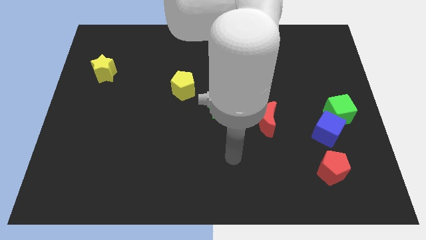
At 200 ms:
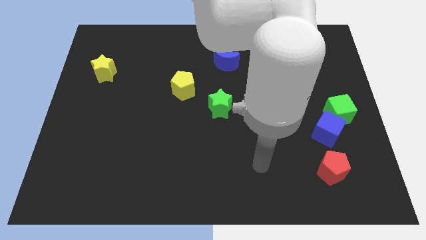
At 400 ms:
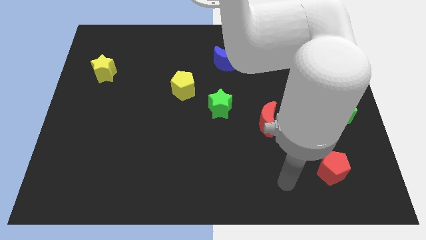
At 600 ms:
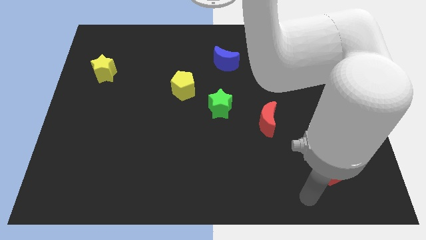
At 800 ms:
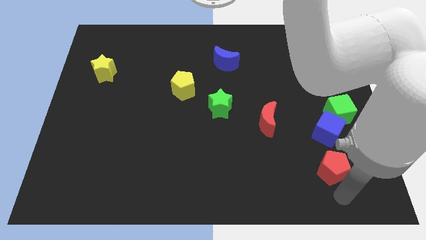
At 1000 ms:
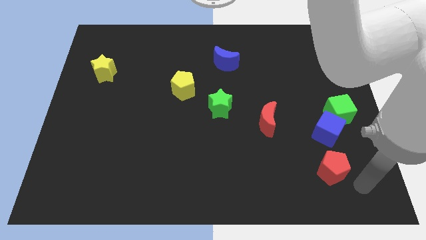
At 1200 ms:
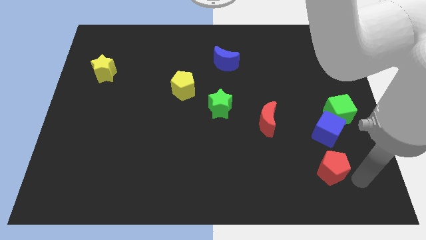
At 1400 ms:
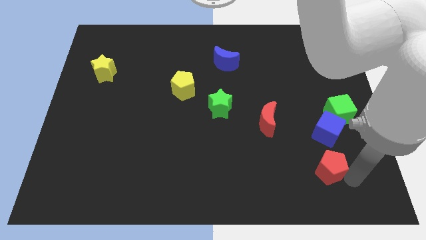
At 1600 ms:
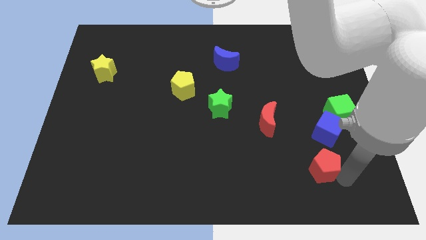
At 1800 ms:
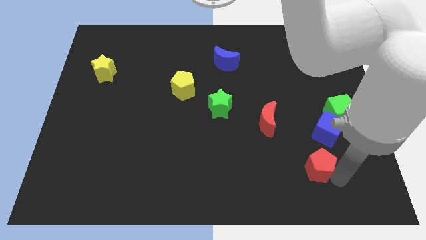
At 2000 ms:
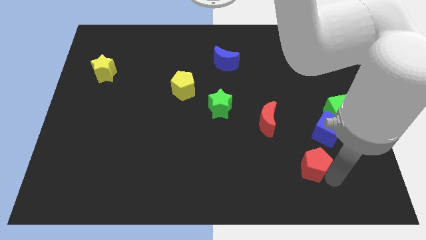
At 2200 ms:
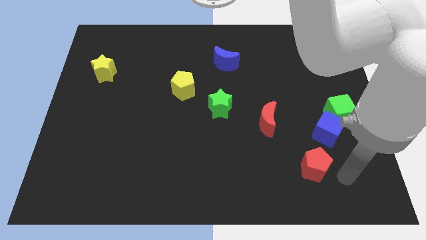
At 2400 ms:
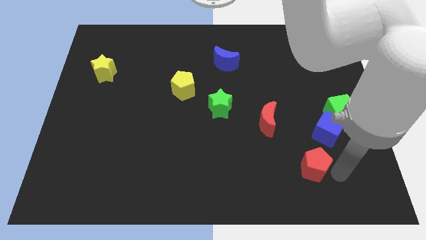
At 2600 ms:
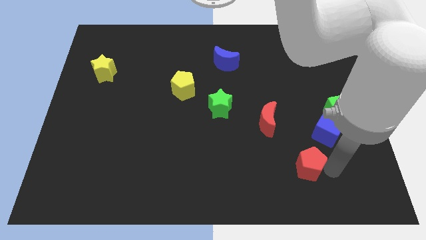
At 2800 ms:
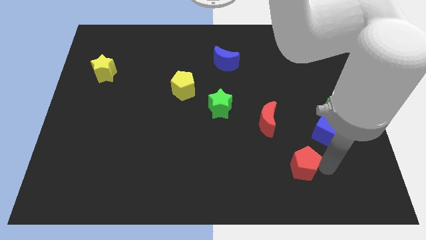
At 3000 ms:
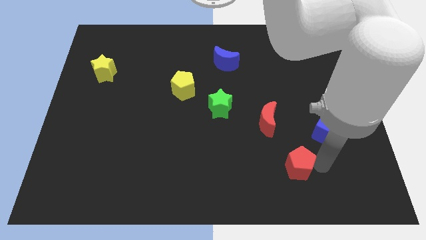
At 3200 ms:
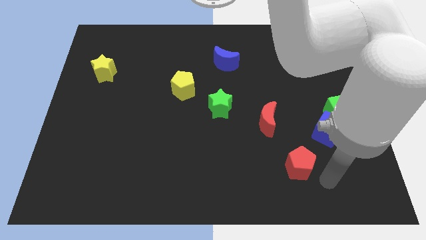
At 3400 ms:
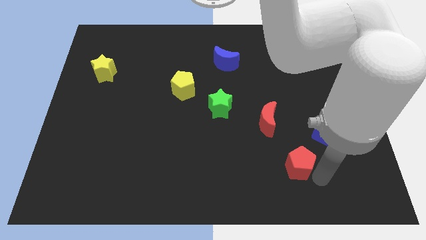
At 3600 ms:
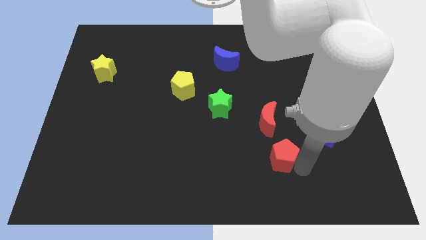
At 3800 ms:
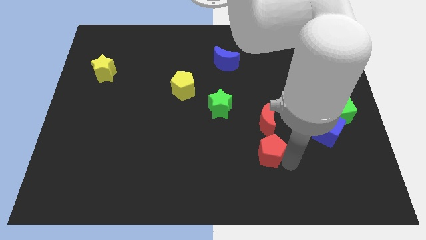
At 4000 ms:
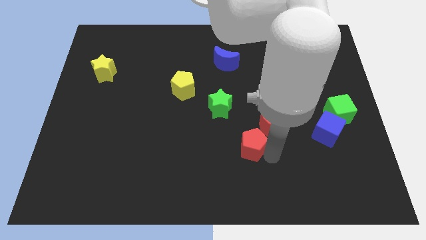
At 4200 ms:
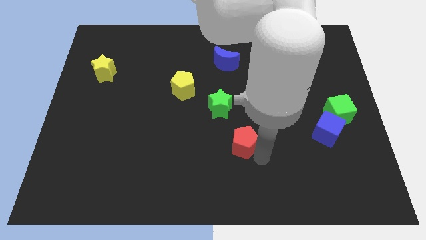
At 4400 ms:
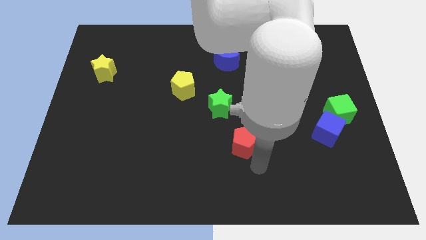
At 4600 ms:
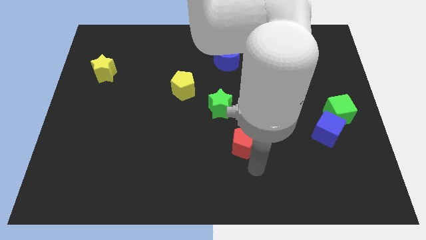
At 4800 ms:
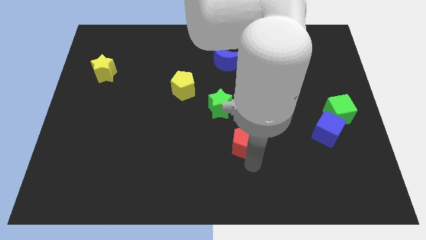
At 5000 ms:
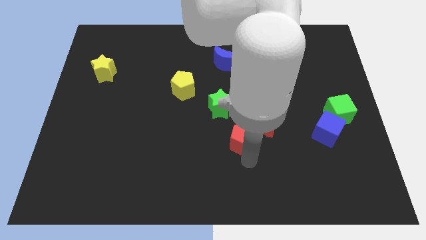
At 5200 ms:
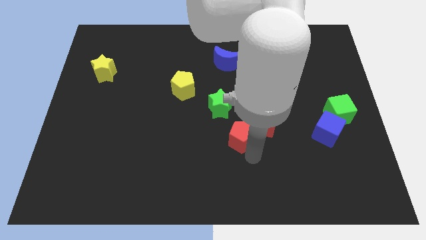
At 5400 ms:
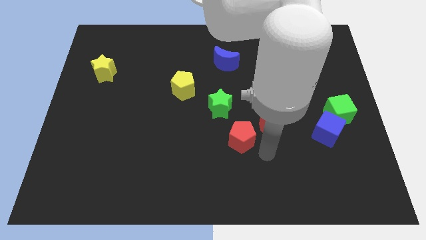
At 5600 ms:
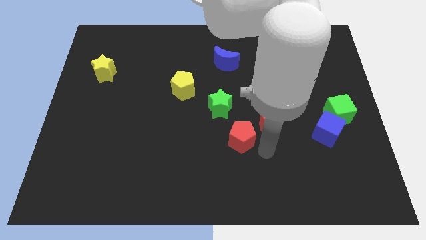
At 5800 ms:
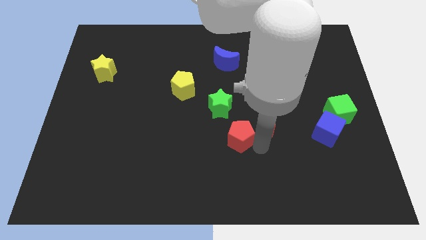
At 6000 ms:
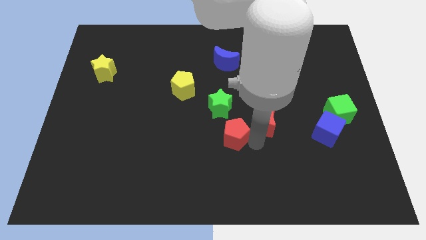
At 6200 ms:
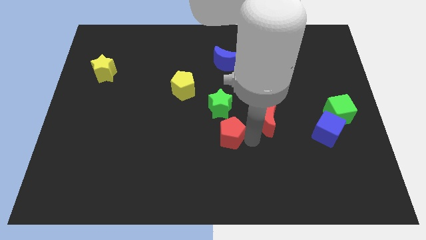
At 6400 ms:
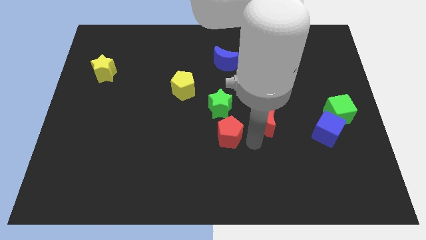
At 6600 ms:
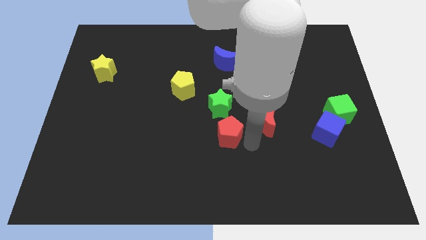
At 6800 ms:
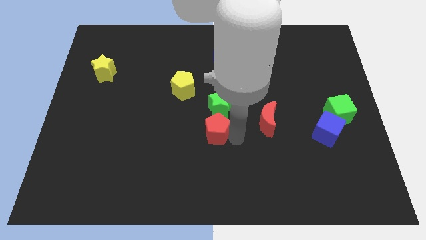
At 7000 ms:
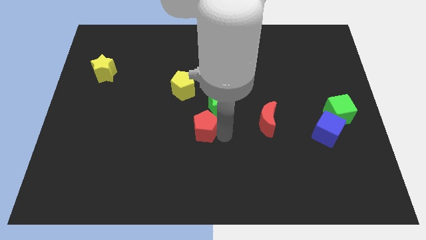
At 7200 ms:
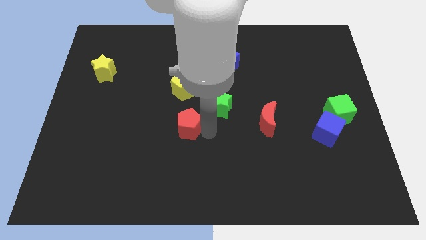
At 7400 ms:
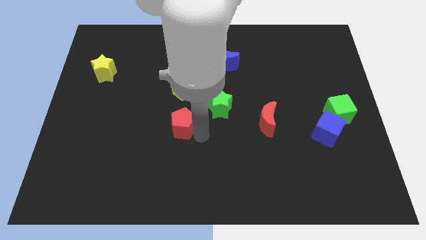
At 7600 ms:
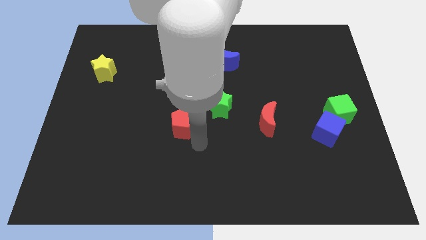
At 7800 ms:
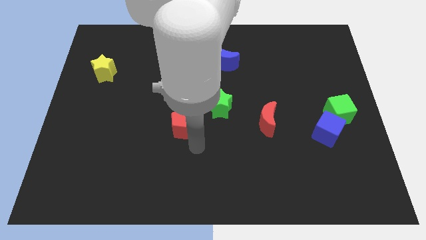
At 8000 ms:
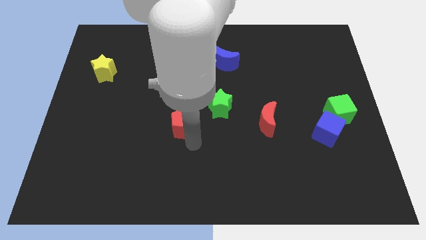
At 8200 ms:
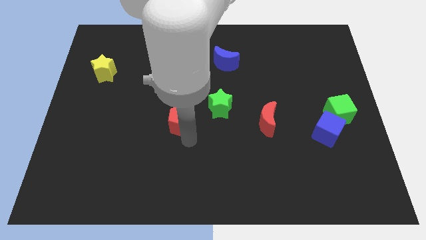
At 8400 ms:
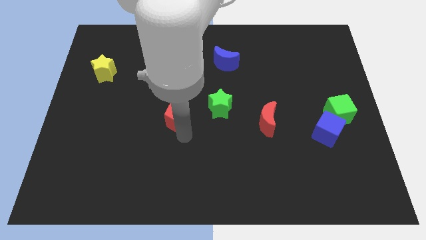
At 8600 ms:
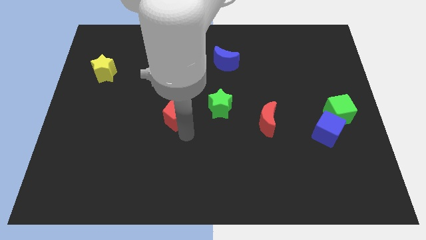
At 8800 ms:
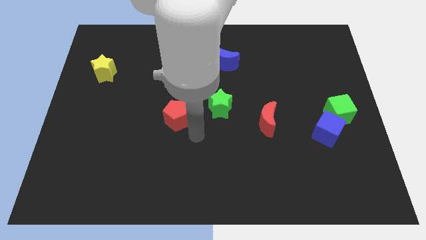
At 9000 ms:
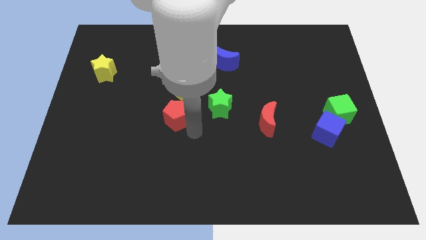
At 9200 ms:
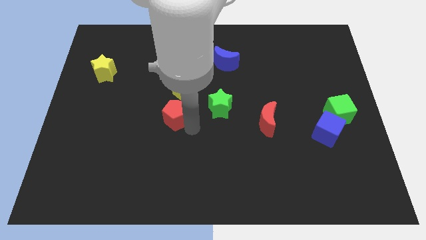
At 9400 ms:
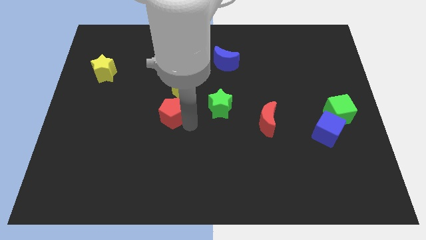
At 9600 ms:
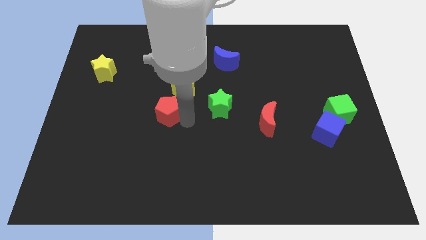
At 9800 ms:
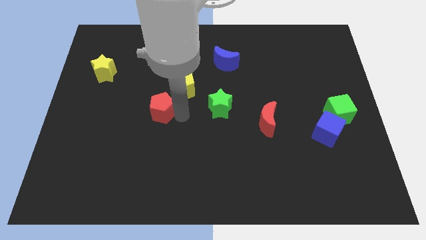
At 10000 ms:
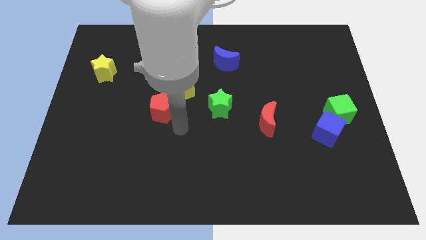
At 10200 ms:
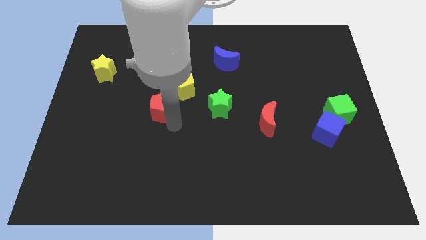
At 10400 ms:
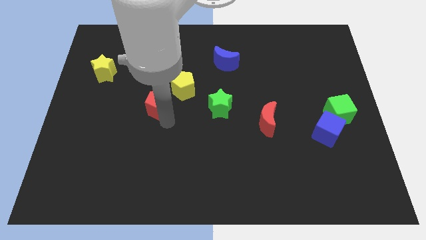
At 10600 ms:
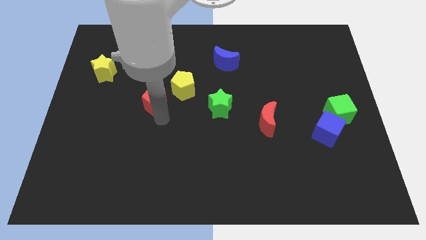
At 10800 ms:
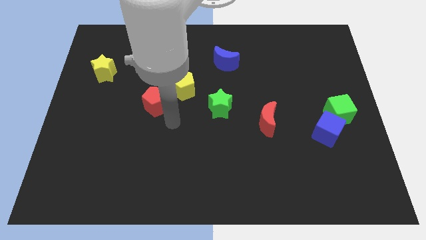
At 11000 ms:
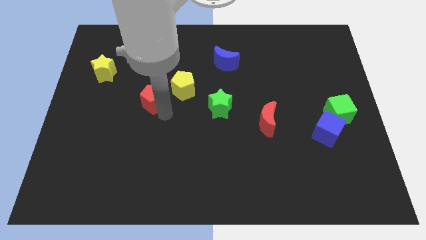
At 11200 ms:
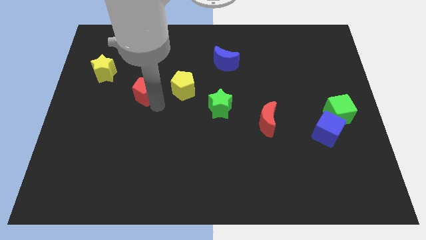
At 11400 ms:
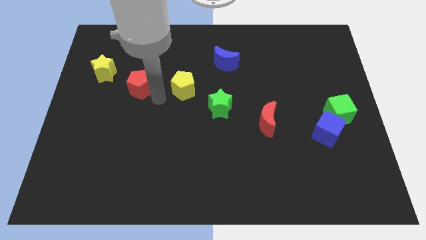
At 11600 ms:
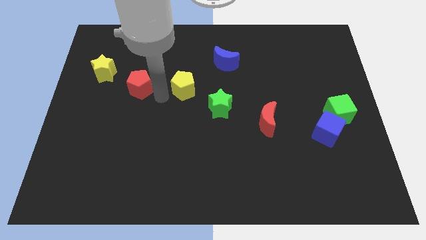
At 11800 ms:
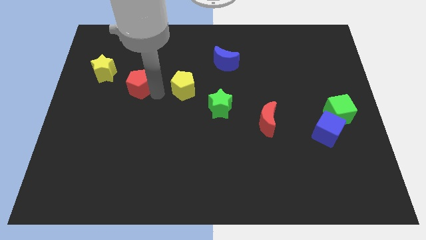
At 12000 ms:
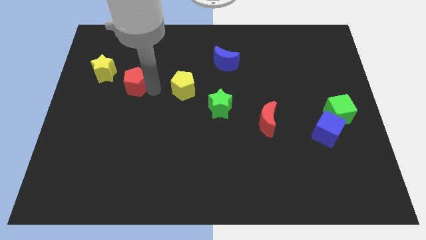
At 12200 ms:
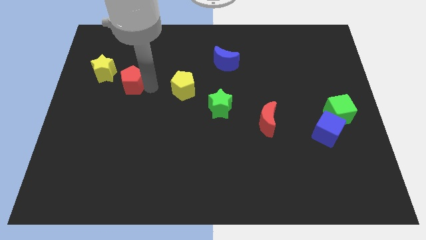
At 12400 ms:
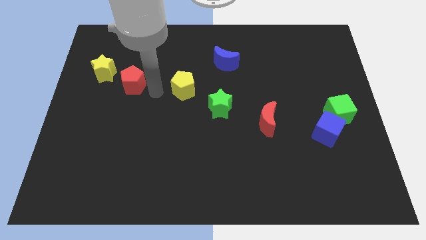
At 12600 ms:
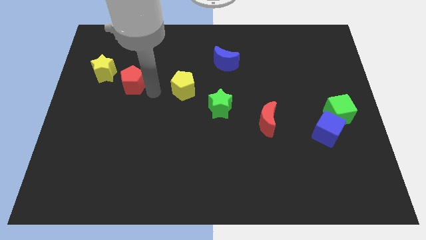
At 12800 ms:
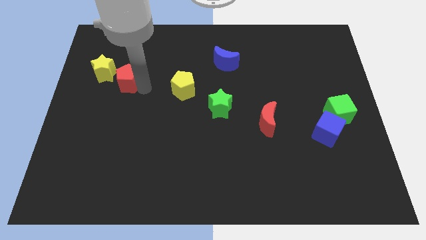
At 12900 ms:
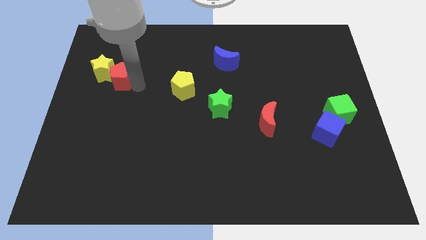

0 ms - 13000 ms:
push the red pentagon towards the yellow star

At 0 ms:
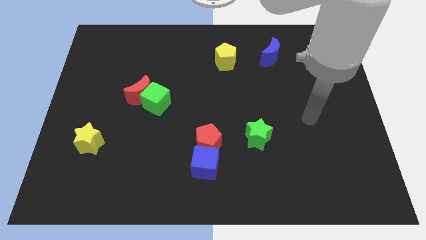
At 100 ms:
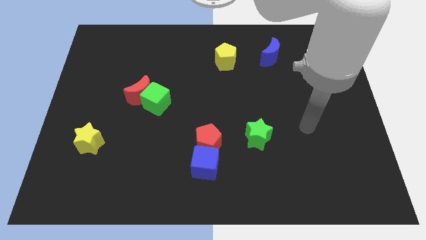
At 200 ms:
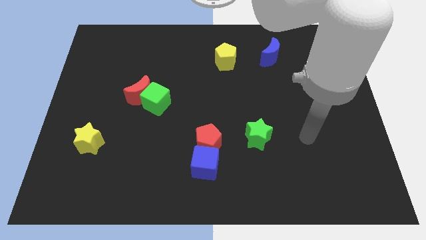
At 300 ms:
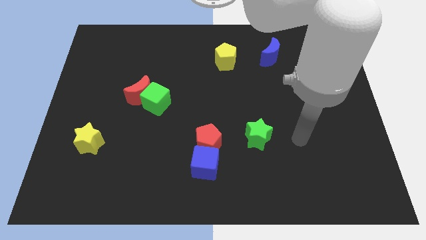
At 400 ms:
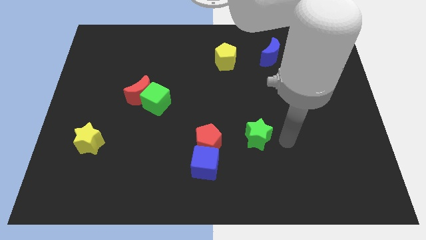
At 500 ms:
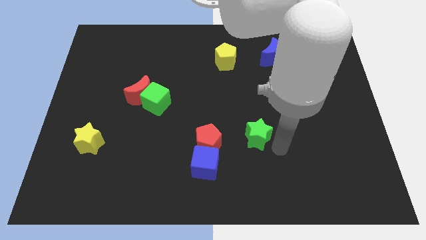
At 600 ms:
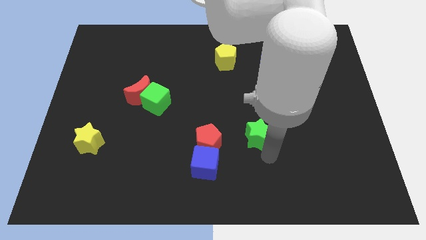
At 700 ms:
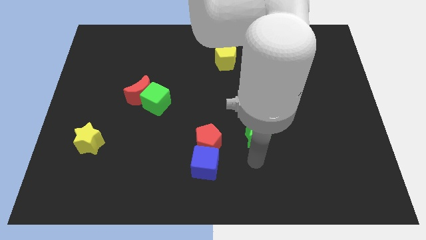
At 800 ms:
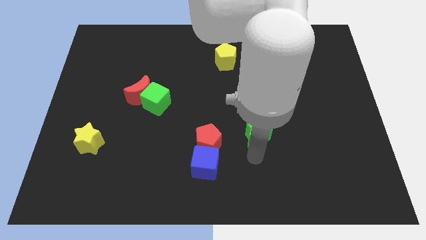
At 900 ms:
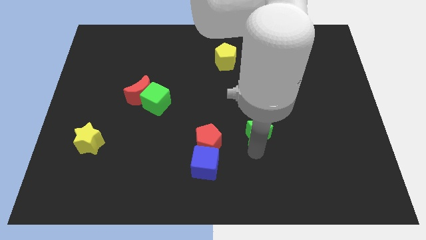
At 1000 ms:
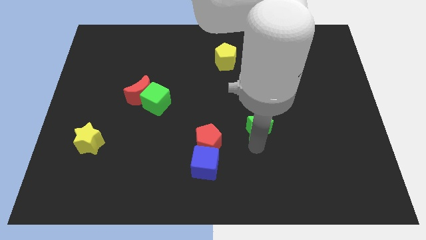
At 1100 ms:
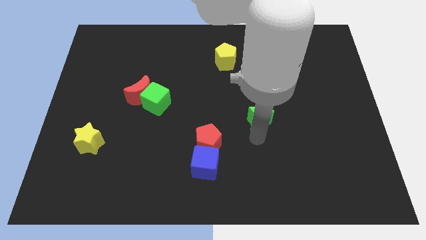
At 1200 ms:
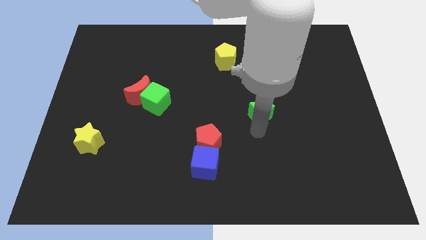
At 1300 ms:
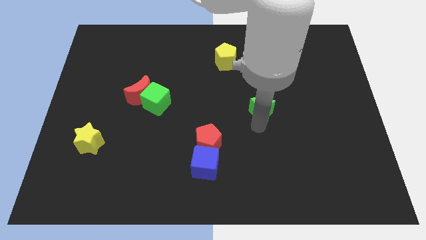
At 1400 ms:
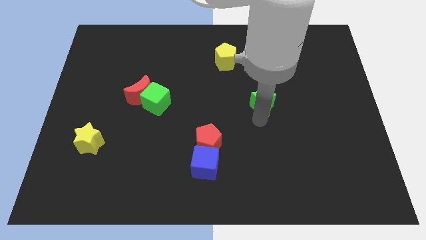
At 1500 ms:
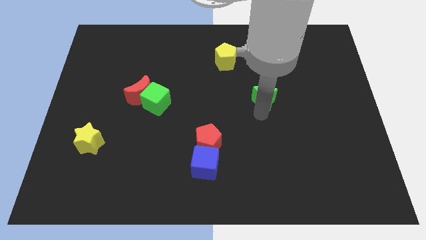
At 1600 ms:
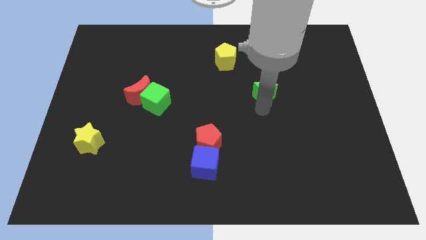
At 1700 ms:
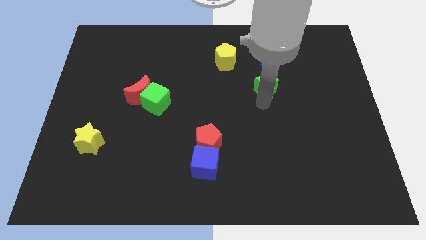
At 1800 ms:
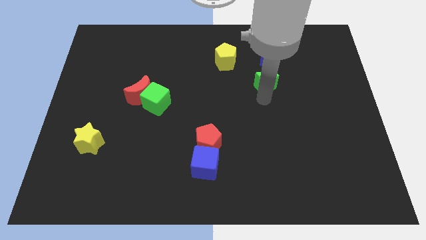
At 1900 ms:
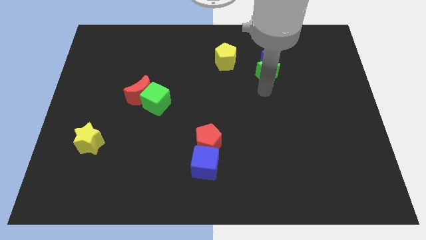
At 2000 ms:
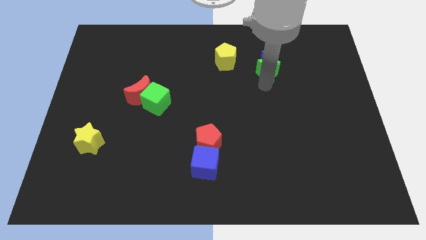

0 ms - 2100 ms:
put the green star close to the blue moon
